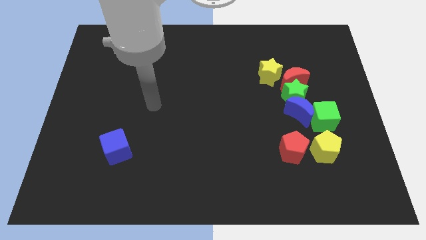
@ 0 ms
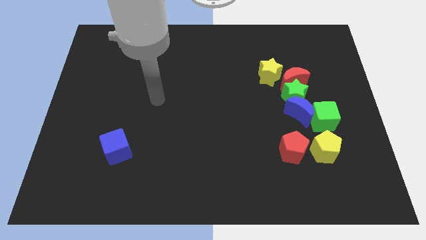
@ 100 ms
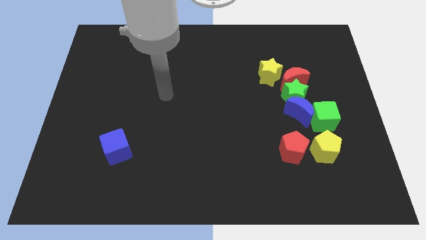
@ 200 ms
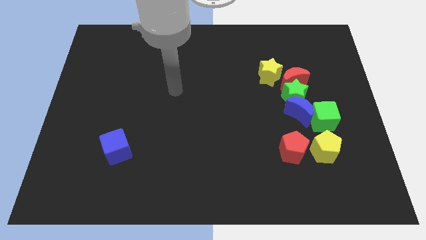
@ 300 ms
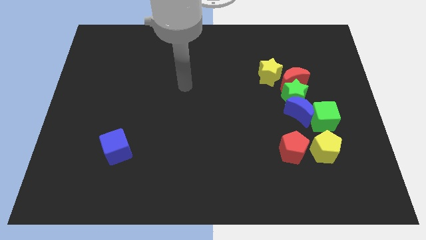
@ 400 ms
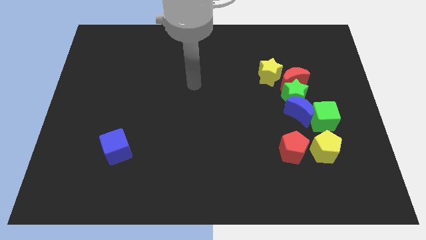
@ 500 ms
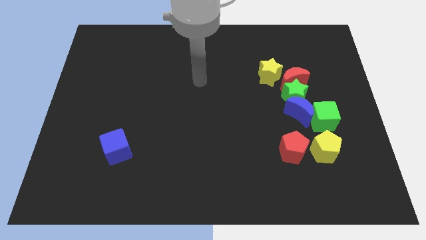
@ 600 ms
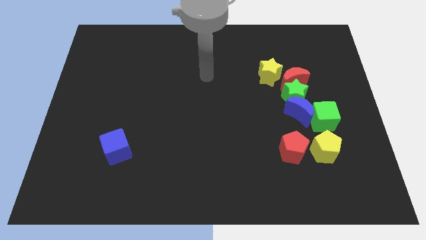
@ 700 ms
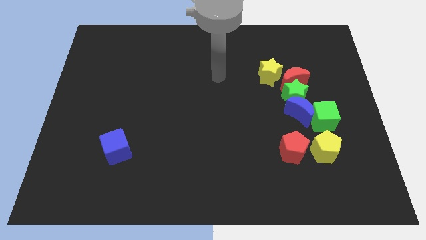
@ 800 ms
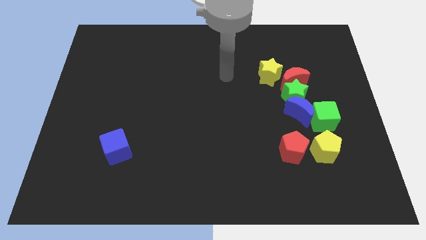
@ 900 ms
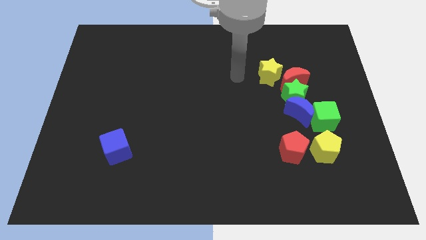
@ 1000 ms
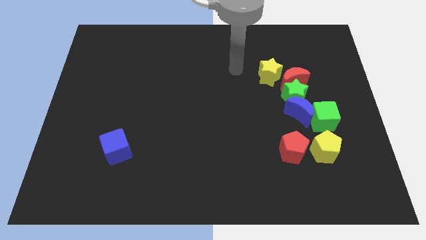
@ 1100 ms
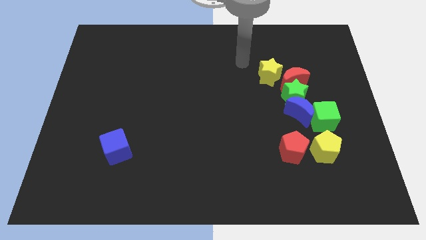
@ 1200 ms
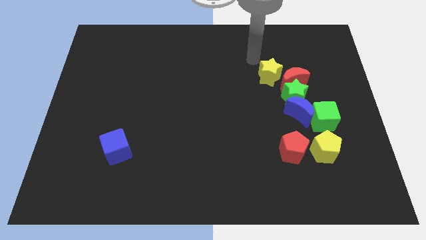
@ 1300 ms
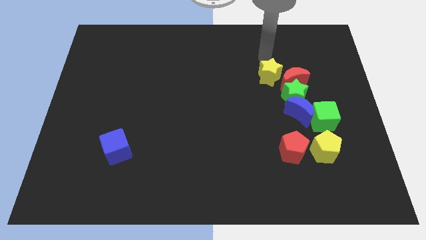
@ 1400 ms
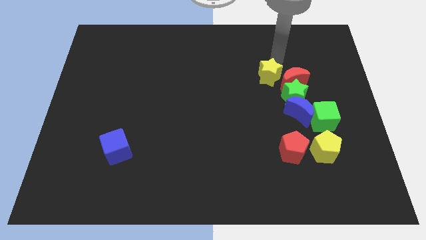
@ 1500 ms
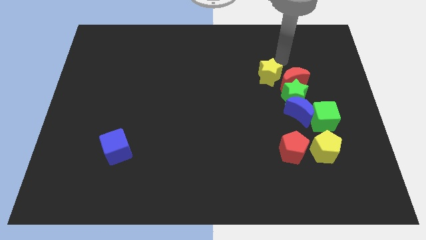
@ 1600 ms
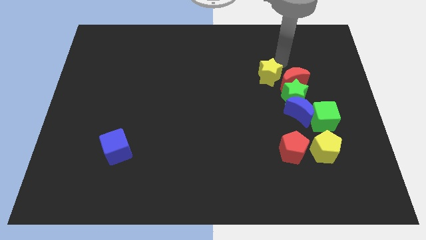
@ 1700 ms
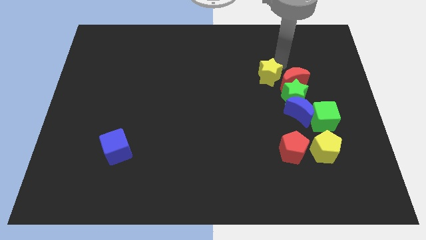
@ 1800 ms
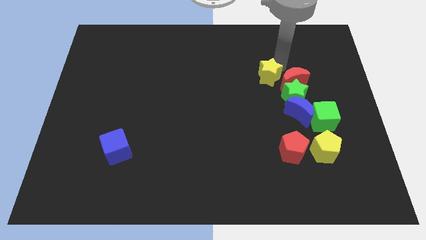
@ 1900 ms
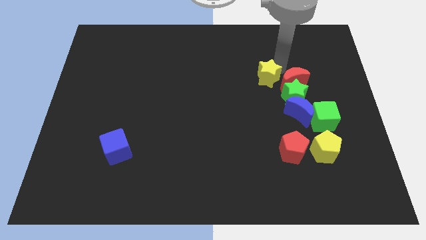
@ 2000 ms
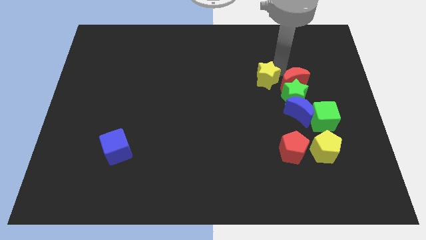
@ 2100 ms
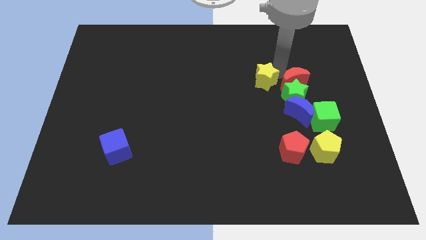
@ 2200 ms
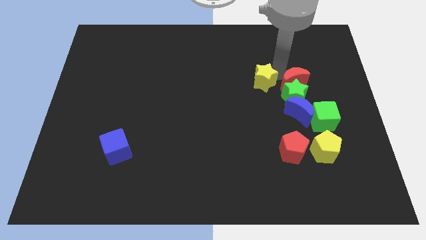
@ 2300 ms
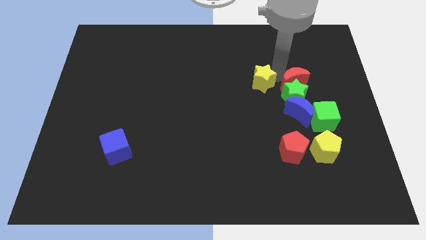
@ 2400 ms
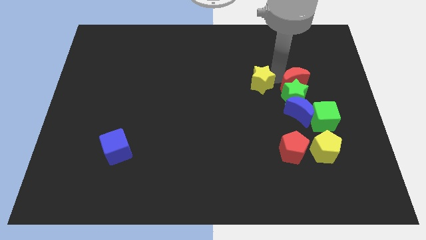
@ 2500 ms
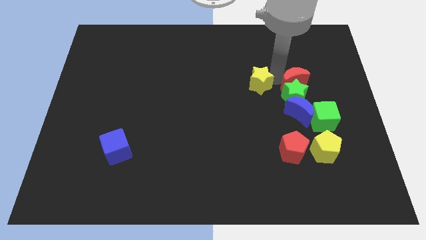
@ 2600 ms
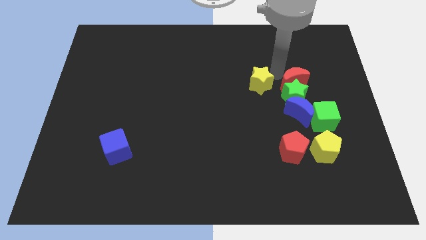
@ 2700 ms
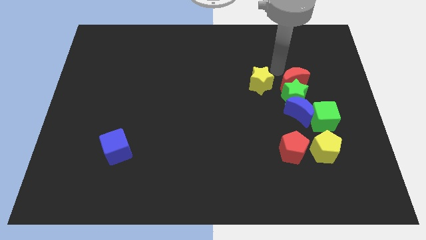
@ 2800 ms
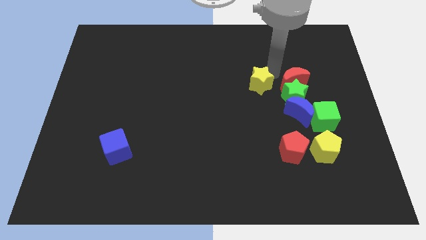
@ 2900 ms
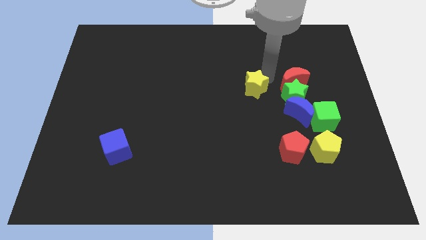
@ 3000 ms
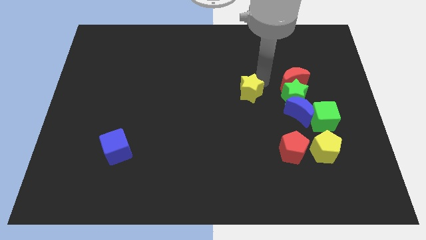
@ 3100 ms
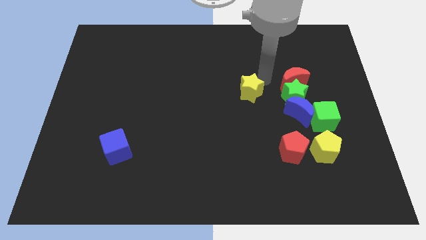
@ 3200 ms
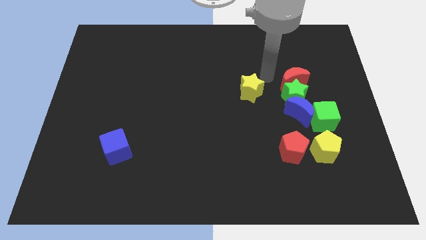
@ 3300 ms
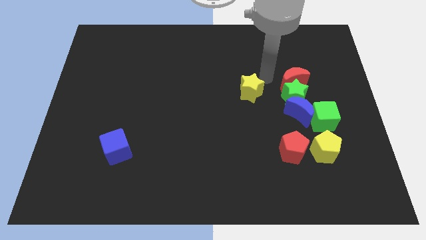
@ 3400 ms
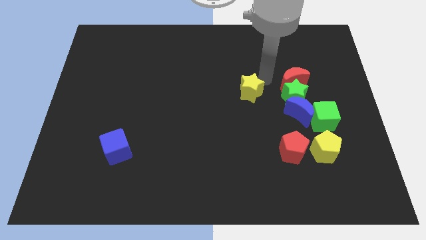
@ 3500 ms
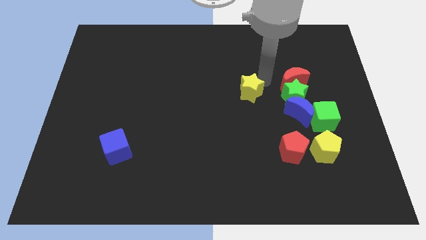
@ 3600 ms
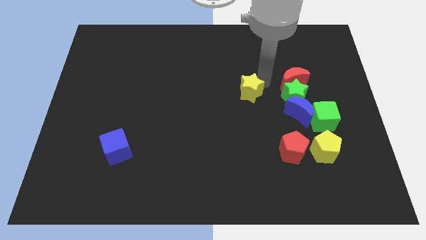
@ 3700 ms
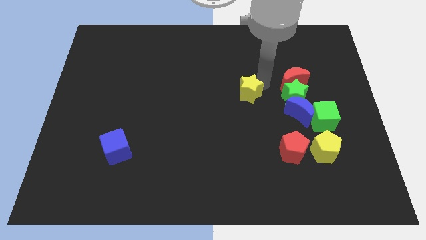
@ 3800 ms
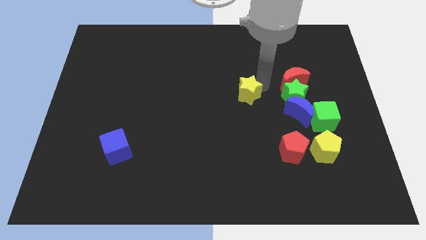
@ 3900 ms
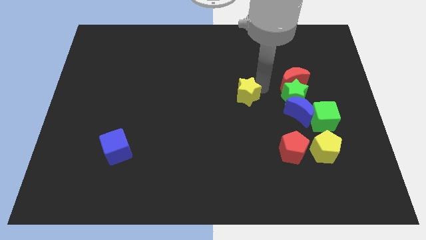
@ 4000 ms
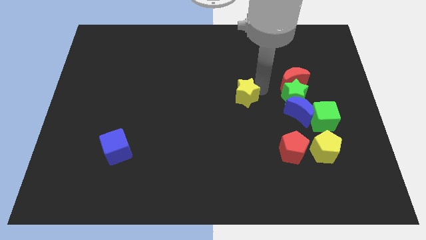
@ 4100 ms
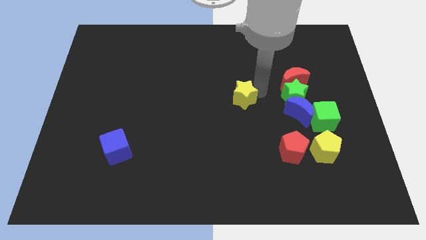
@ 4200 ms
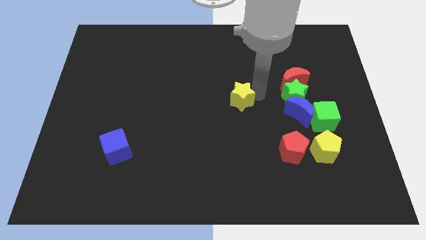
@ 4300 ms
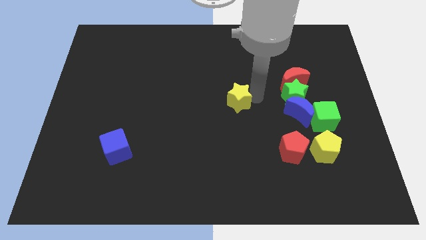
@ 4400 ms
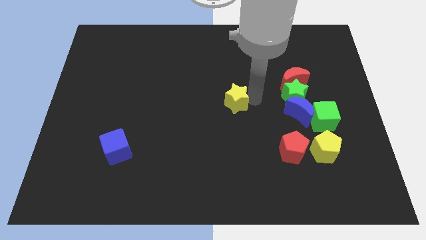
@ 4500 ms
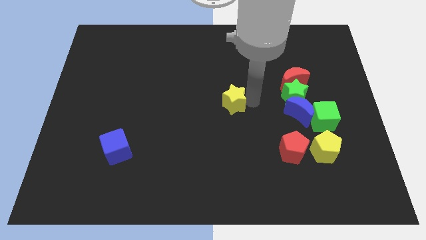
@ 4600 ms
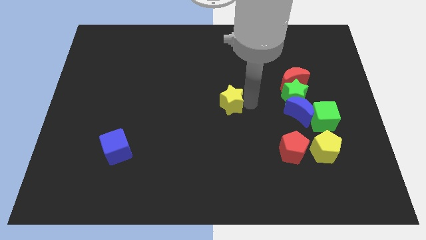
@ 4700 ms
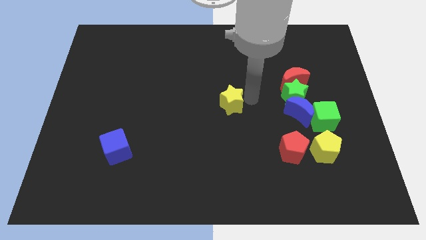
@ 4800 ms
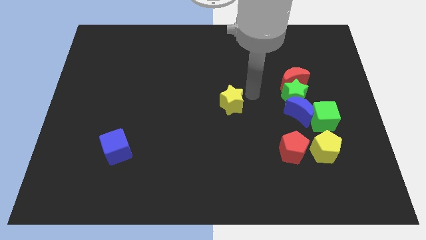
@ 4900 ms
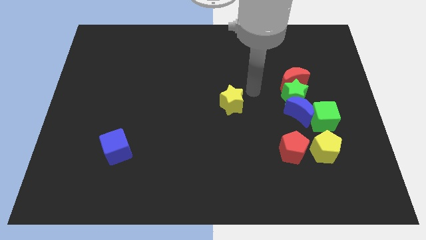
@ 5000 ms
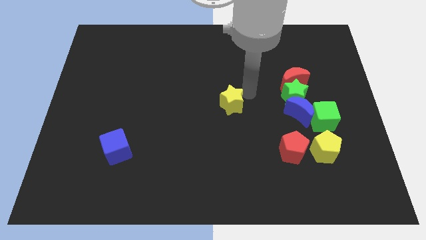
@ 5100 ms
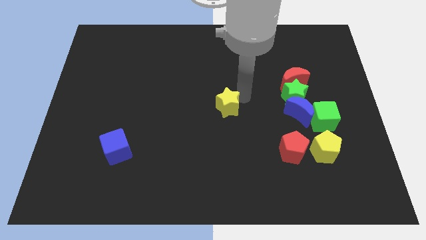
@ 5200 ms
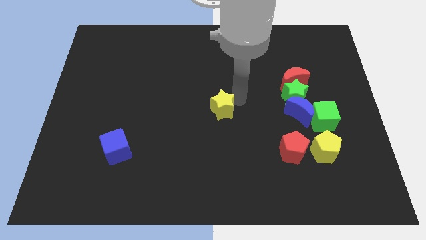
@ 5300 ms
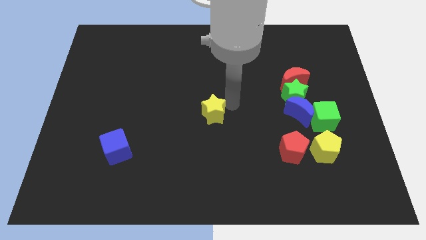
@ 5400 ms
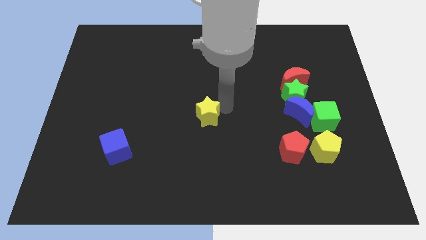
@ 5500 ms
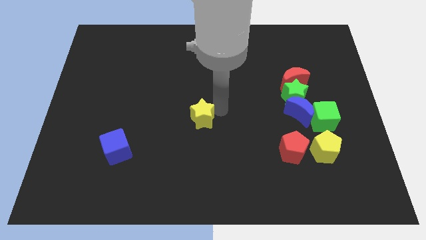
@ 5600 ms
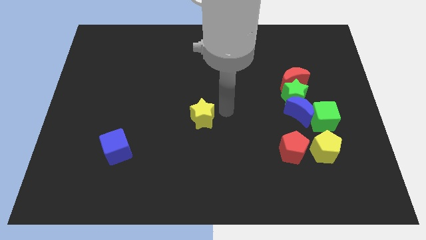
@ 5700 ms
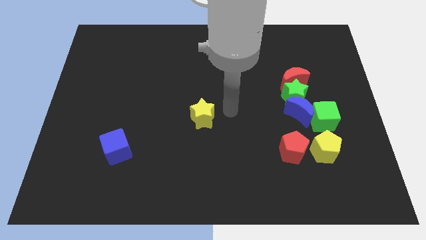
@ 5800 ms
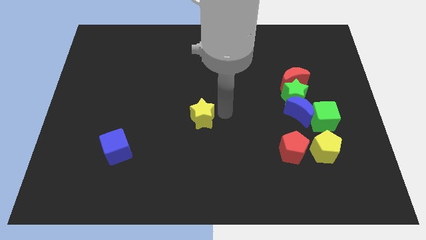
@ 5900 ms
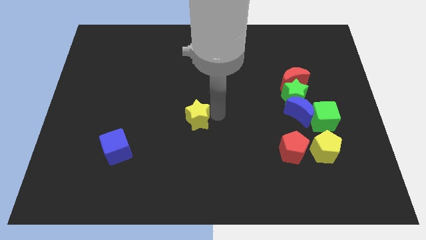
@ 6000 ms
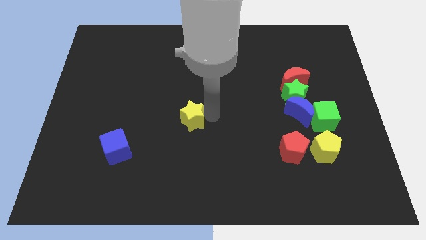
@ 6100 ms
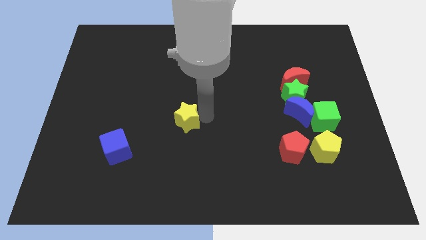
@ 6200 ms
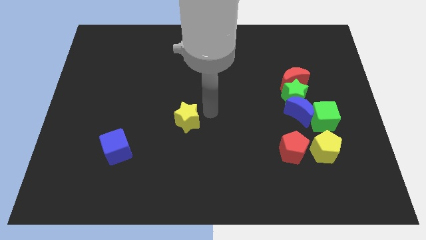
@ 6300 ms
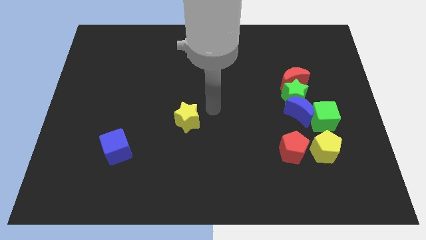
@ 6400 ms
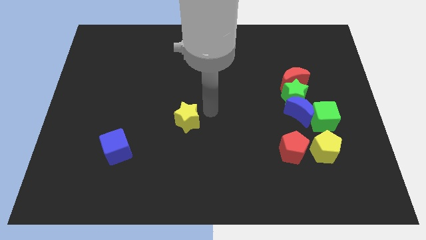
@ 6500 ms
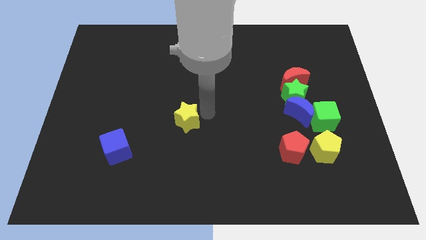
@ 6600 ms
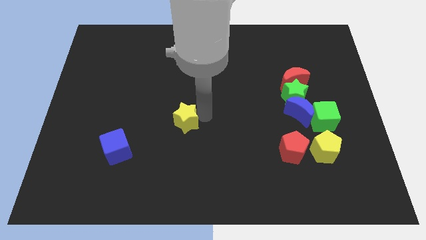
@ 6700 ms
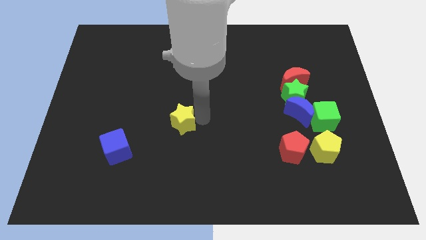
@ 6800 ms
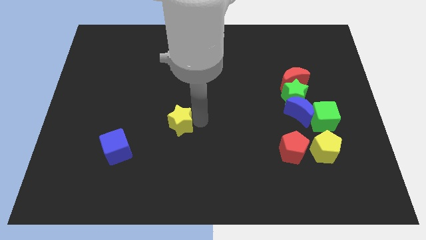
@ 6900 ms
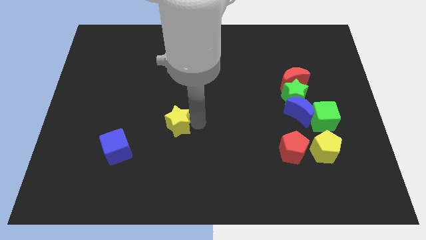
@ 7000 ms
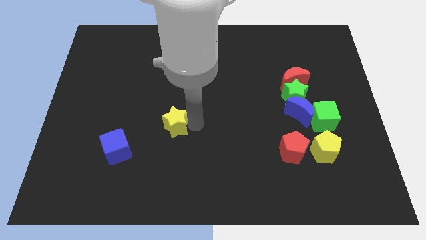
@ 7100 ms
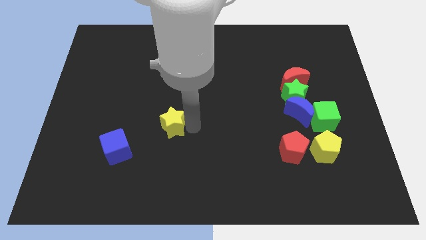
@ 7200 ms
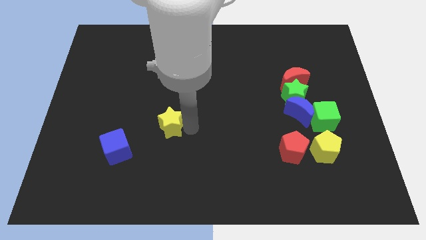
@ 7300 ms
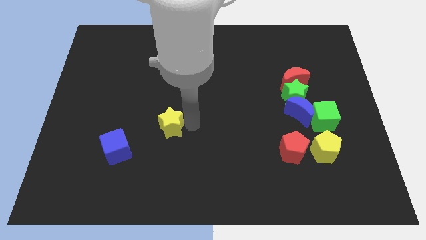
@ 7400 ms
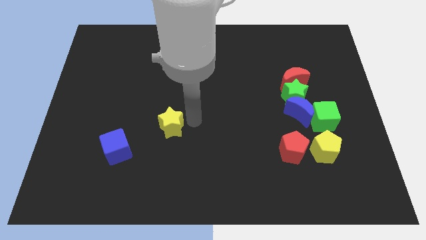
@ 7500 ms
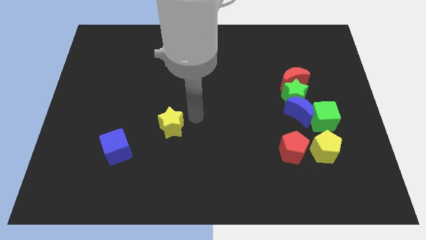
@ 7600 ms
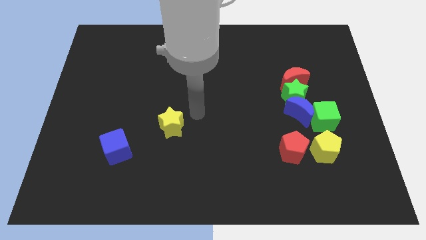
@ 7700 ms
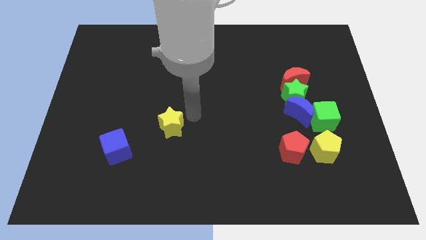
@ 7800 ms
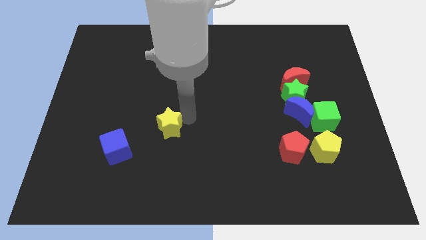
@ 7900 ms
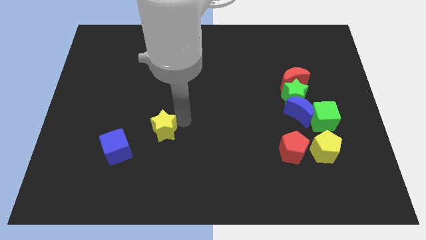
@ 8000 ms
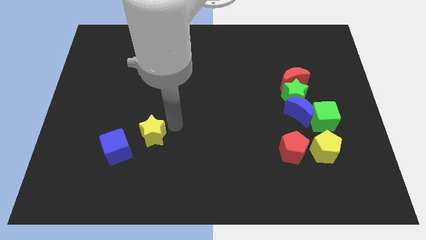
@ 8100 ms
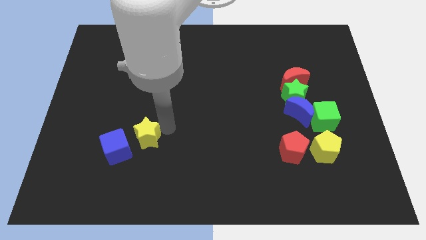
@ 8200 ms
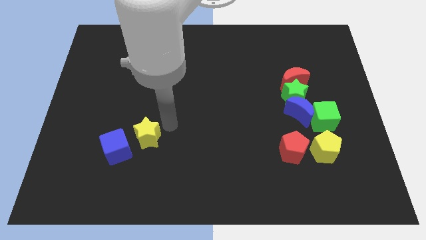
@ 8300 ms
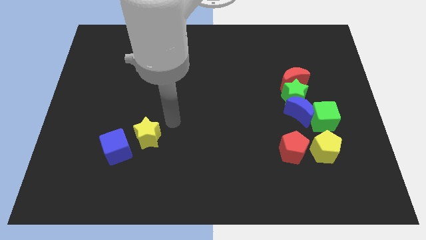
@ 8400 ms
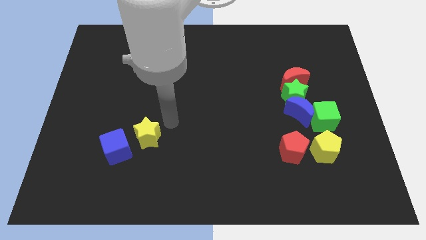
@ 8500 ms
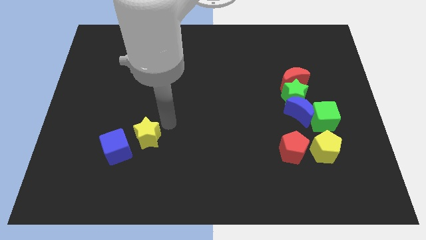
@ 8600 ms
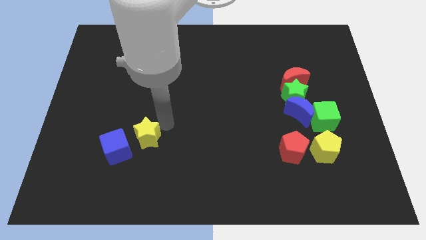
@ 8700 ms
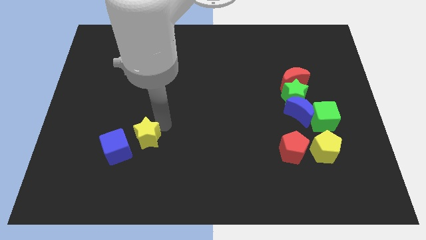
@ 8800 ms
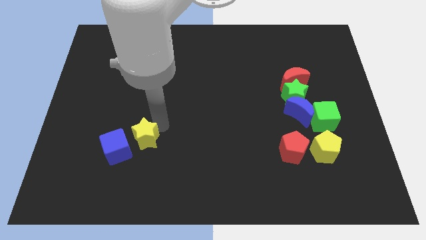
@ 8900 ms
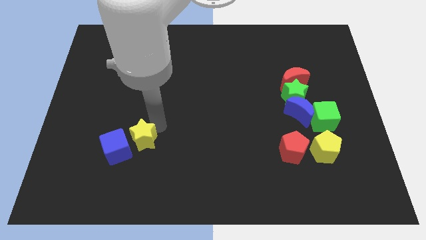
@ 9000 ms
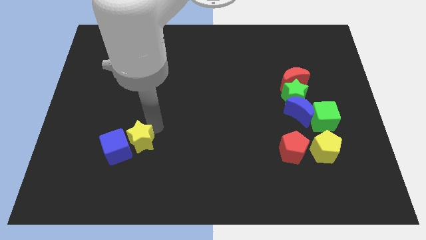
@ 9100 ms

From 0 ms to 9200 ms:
put the yellow star next to the blue cube
